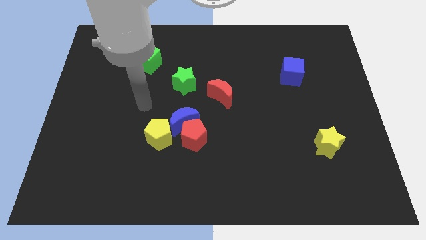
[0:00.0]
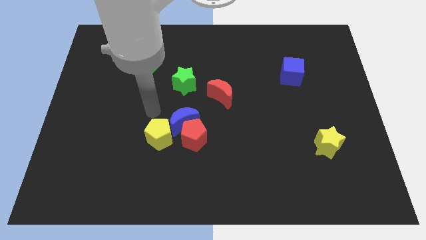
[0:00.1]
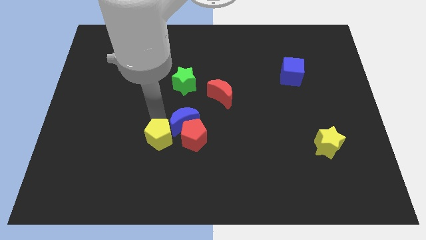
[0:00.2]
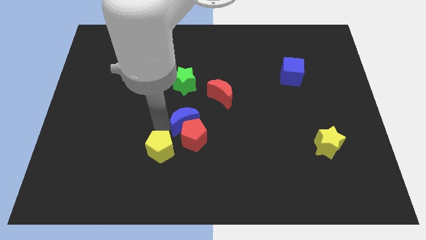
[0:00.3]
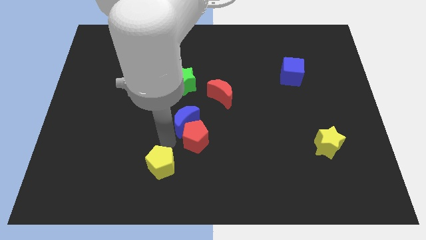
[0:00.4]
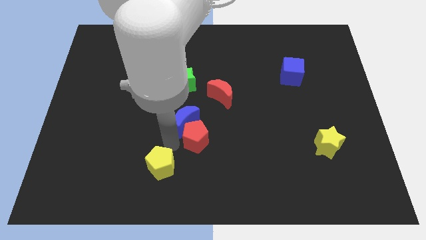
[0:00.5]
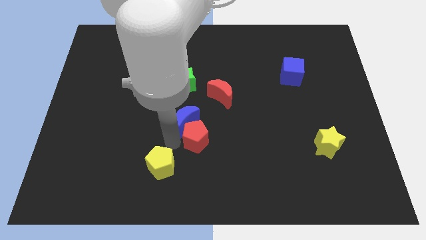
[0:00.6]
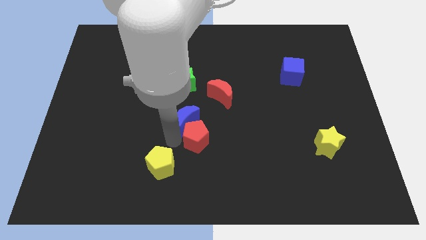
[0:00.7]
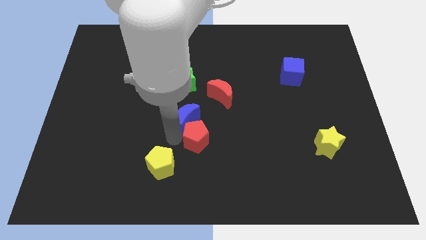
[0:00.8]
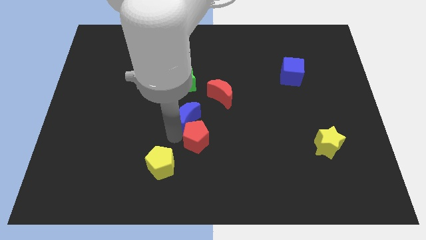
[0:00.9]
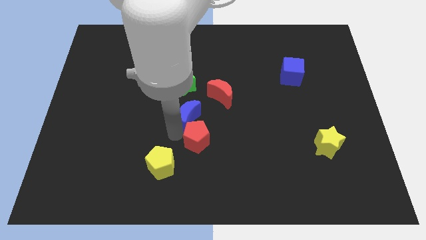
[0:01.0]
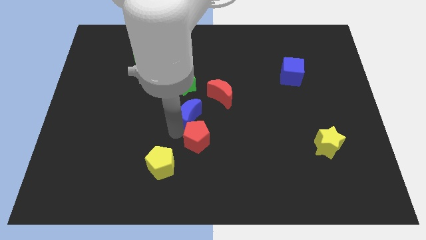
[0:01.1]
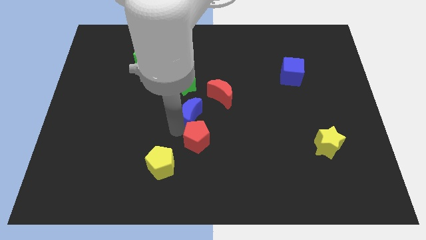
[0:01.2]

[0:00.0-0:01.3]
separate the blue moon from the red pentagon and yellow pentagon

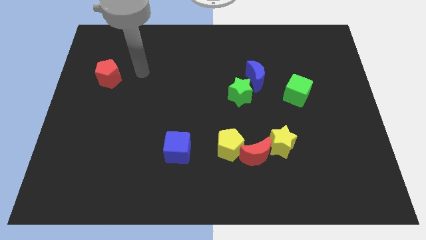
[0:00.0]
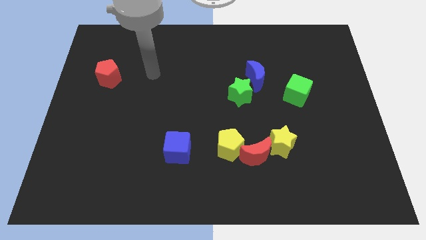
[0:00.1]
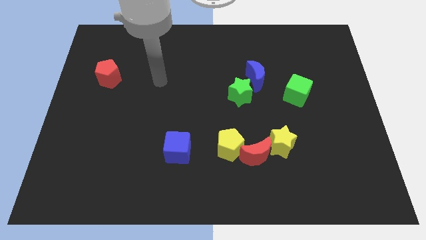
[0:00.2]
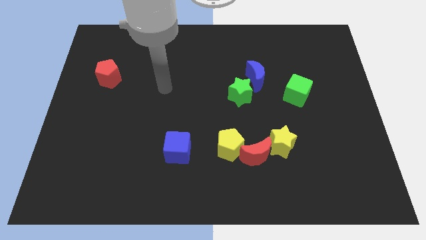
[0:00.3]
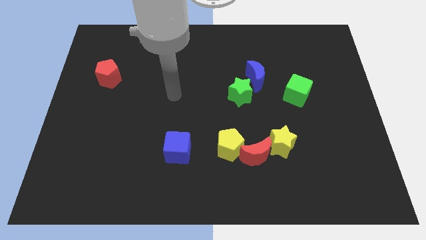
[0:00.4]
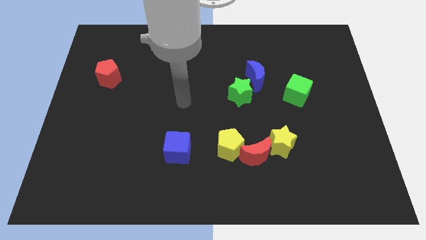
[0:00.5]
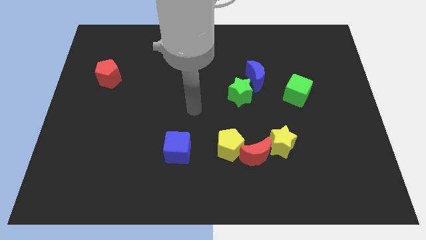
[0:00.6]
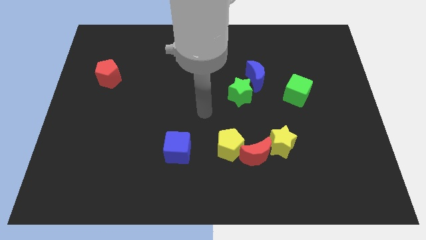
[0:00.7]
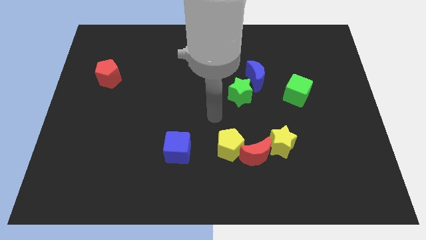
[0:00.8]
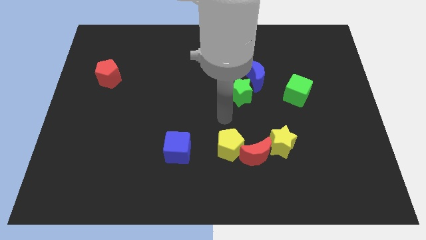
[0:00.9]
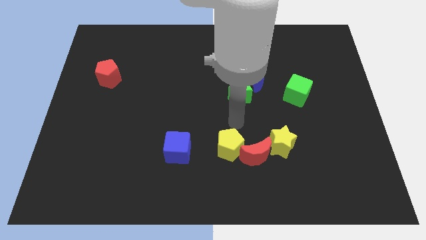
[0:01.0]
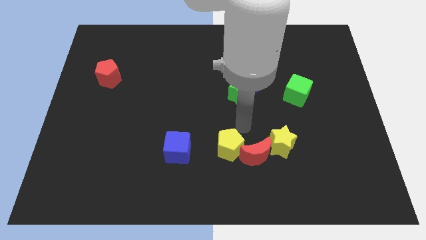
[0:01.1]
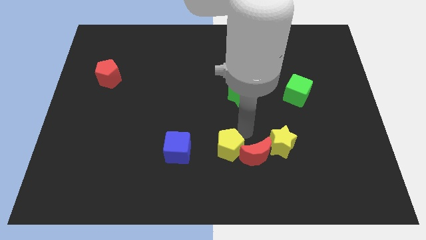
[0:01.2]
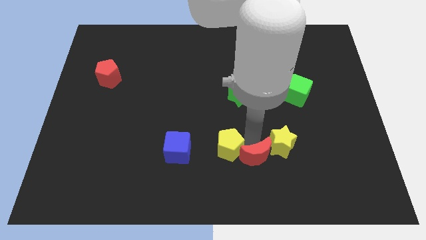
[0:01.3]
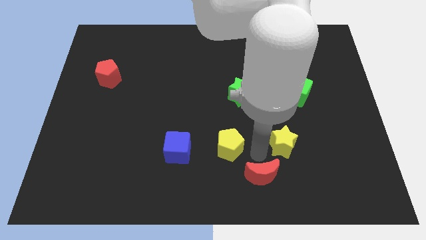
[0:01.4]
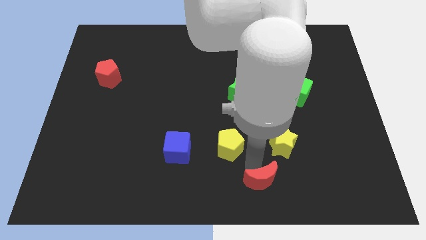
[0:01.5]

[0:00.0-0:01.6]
move the yellow pentagon away from the red moon

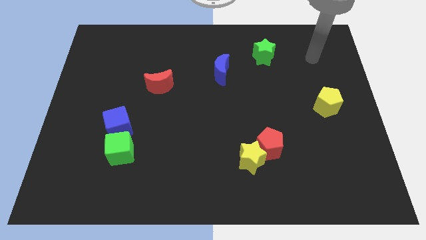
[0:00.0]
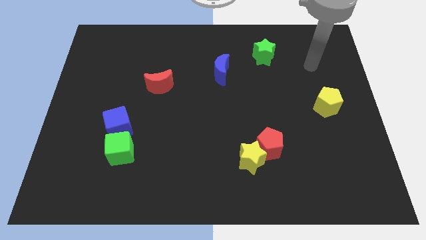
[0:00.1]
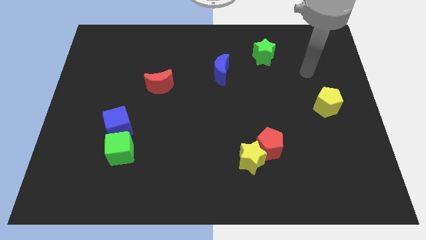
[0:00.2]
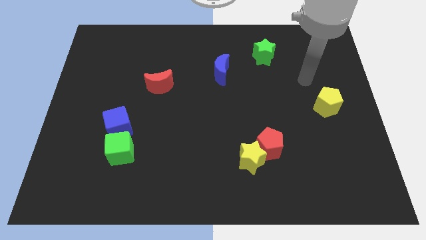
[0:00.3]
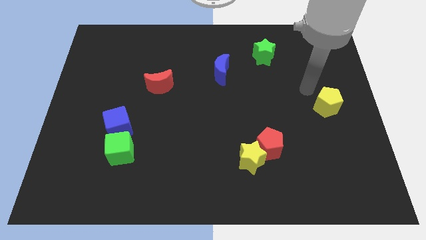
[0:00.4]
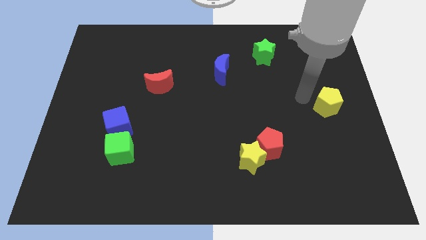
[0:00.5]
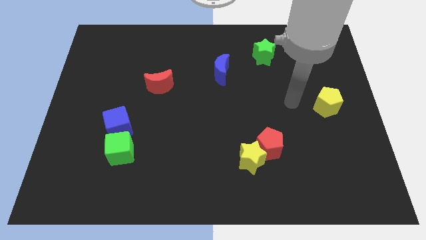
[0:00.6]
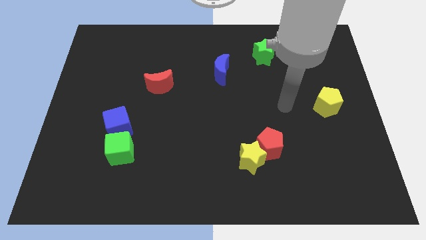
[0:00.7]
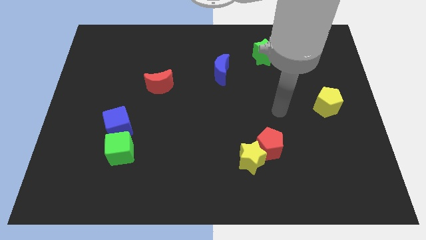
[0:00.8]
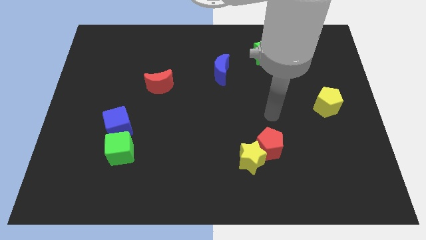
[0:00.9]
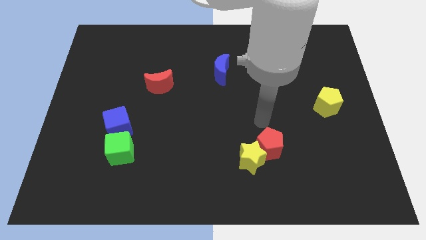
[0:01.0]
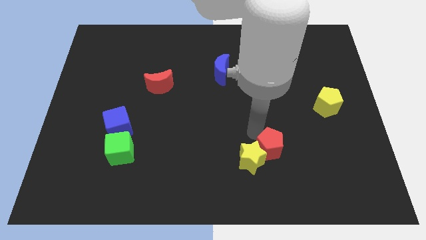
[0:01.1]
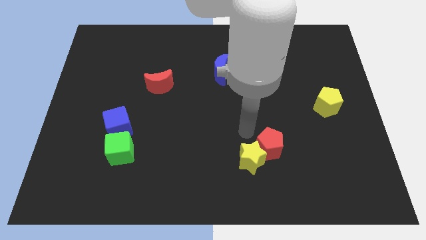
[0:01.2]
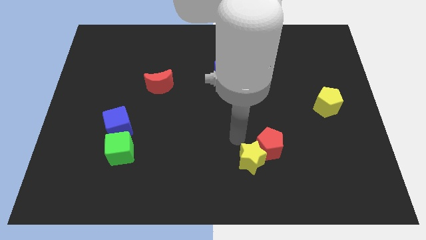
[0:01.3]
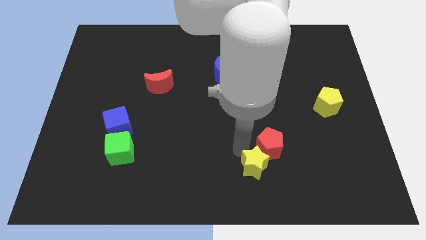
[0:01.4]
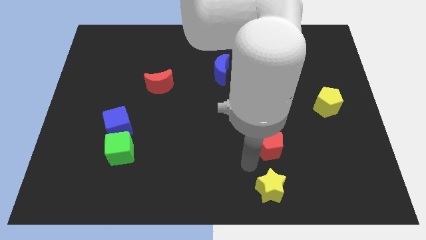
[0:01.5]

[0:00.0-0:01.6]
pull the red pentagon apart from the yellow star

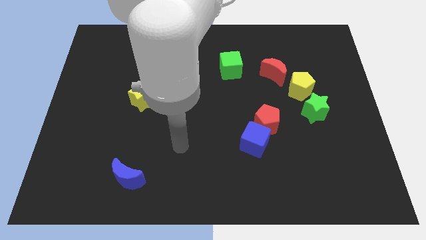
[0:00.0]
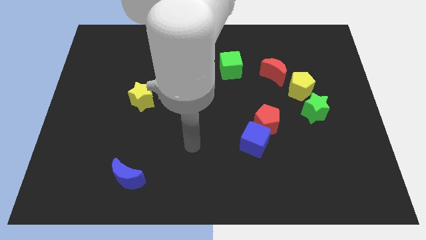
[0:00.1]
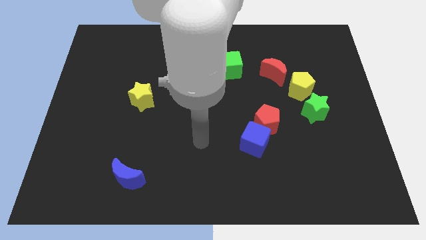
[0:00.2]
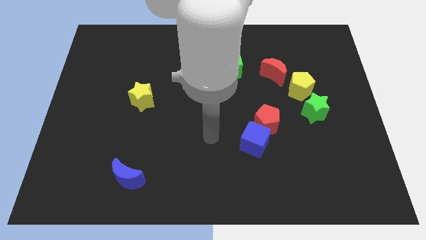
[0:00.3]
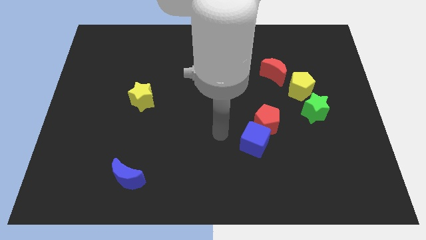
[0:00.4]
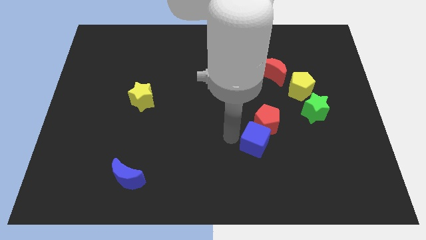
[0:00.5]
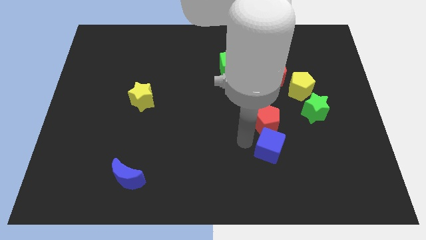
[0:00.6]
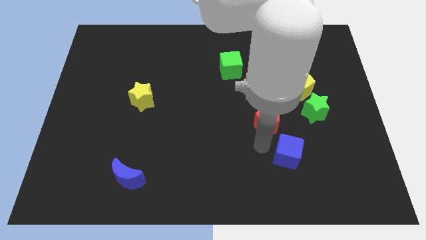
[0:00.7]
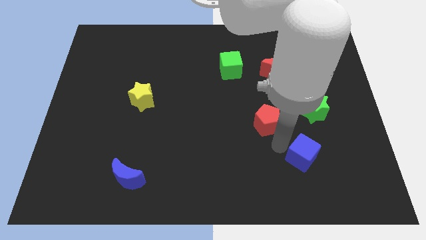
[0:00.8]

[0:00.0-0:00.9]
move the red pentagon away from the blue cube

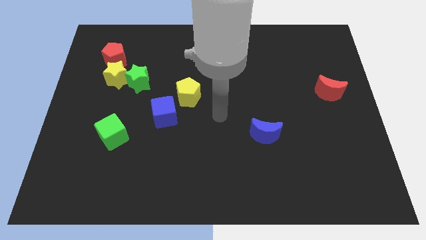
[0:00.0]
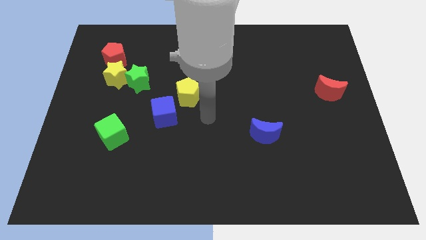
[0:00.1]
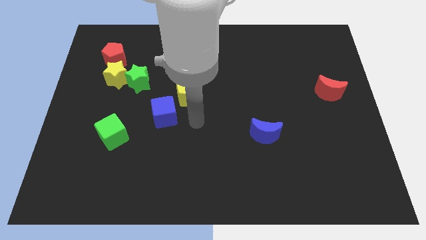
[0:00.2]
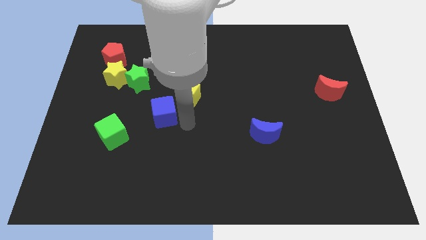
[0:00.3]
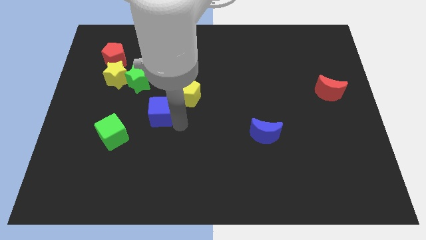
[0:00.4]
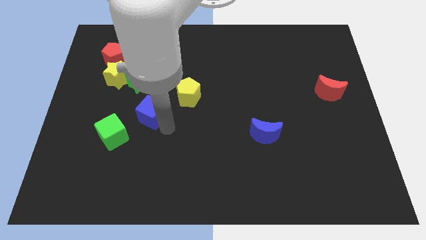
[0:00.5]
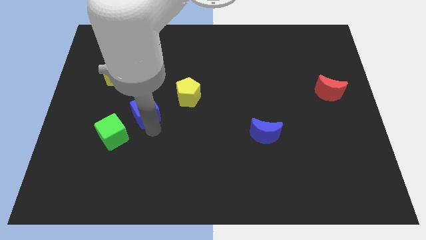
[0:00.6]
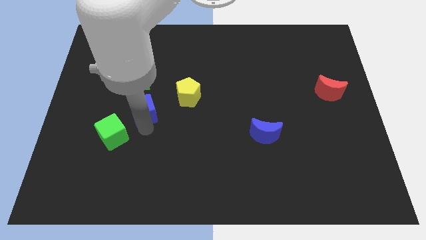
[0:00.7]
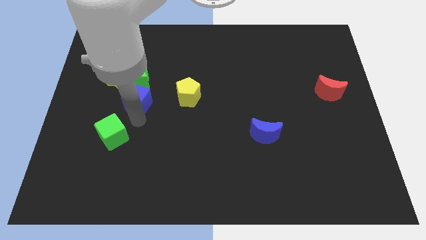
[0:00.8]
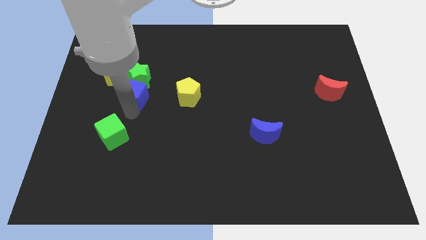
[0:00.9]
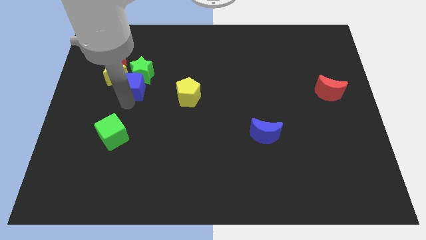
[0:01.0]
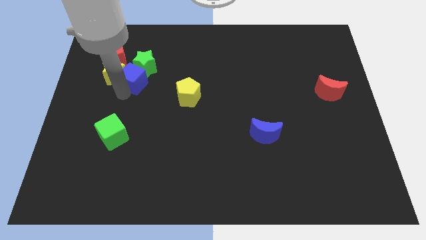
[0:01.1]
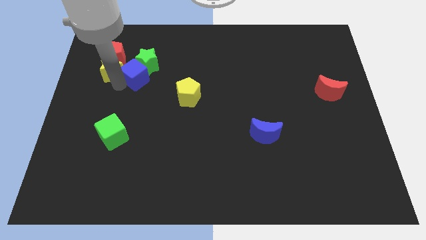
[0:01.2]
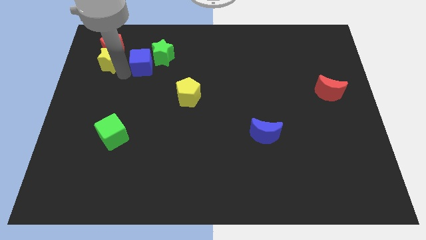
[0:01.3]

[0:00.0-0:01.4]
pull the green star apart from the yellow star

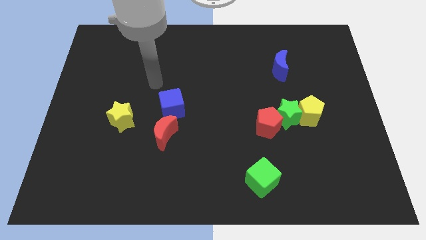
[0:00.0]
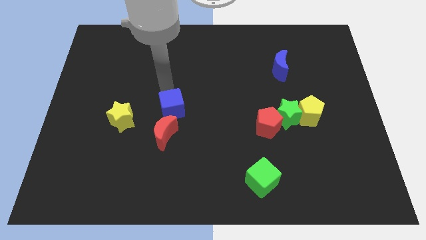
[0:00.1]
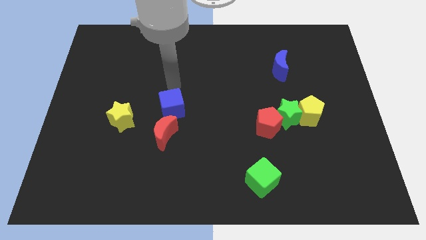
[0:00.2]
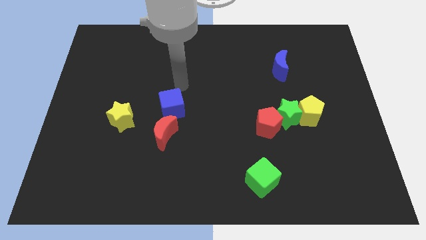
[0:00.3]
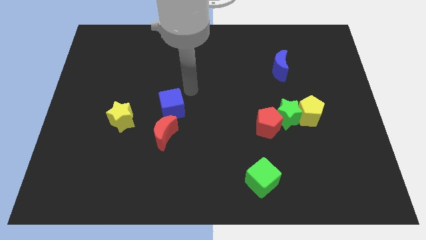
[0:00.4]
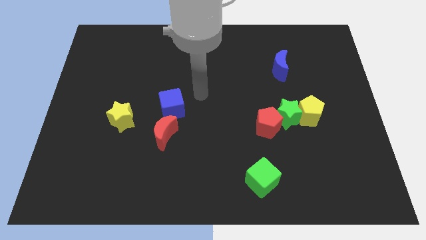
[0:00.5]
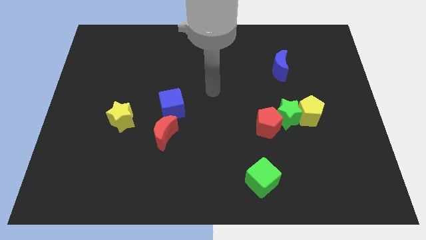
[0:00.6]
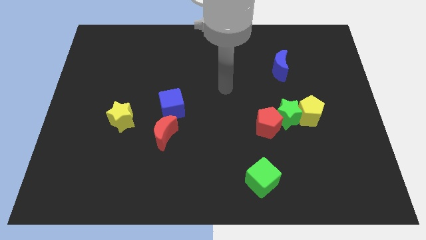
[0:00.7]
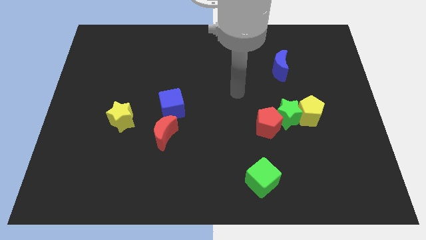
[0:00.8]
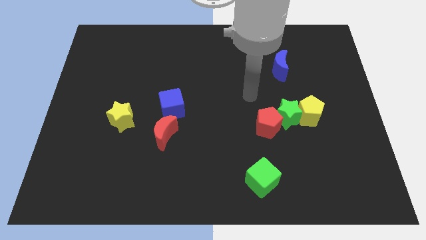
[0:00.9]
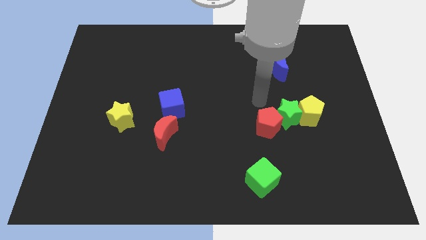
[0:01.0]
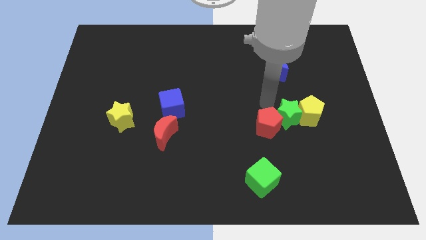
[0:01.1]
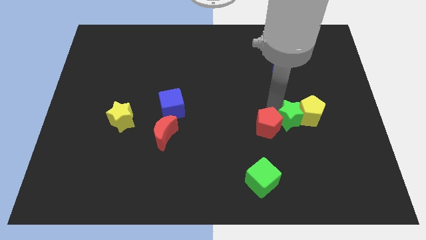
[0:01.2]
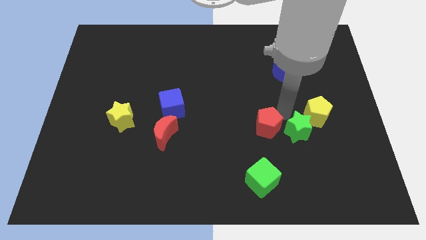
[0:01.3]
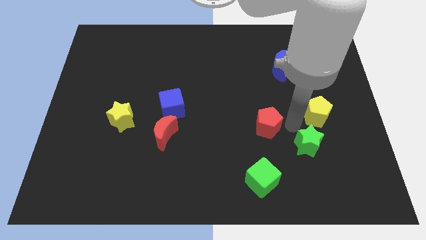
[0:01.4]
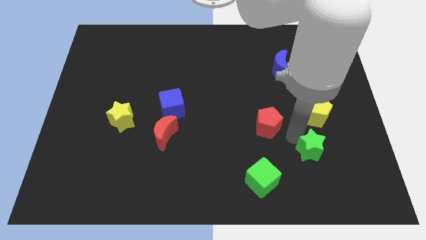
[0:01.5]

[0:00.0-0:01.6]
move the red pentagon away from the green star

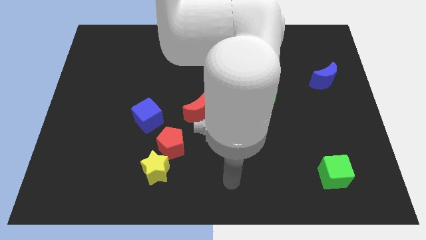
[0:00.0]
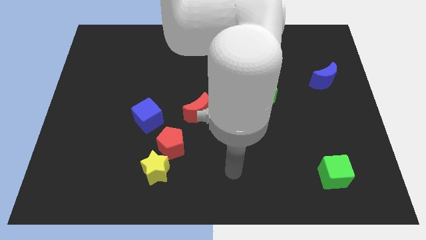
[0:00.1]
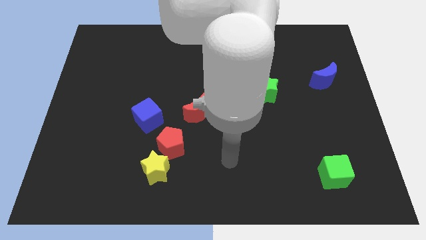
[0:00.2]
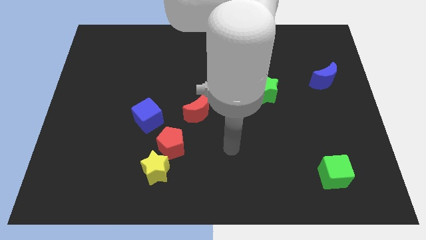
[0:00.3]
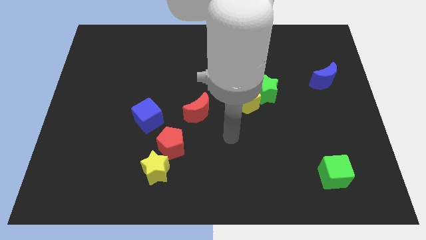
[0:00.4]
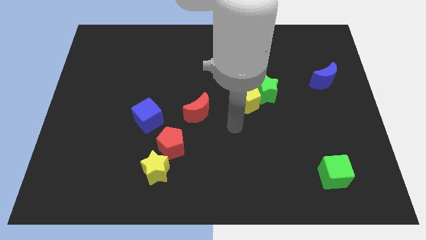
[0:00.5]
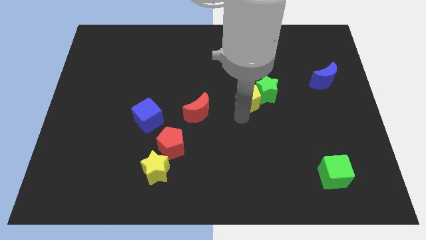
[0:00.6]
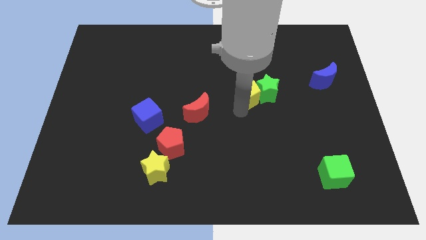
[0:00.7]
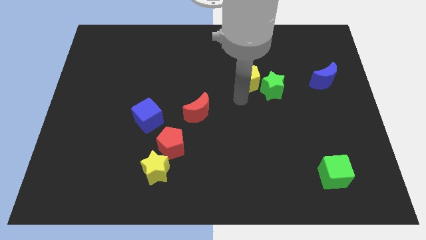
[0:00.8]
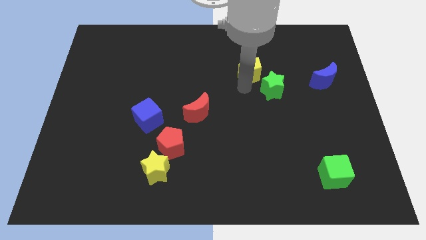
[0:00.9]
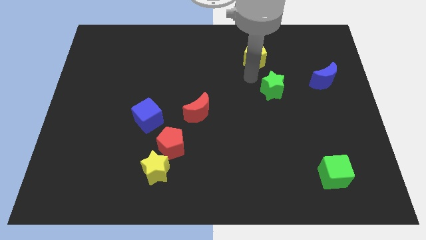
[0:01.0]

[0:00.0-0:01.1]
move the green star away from the yellow pentagon
